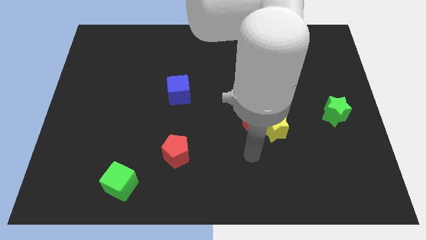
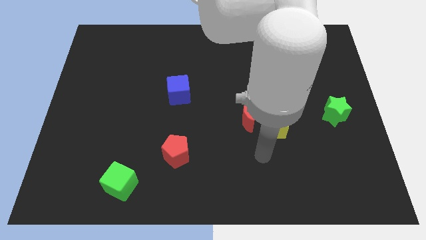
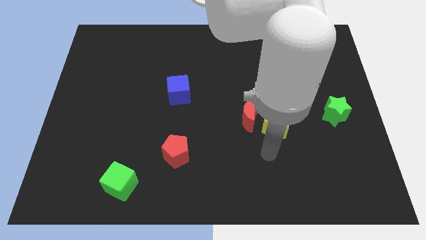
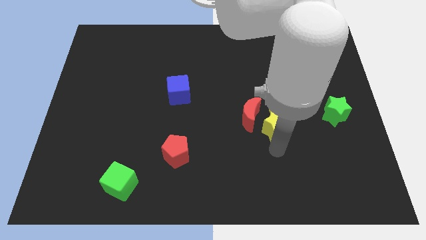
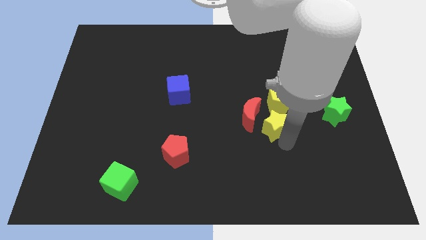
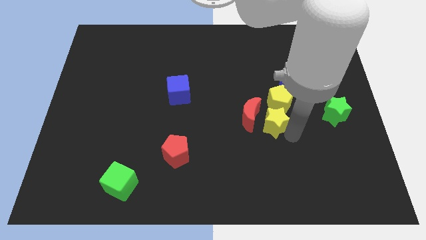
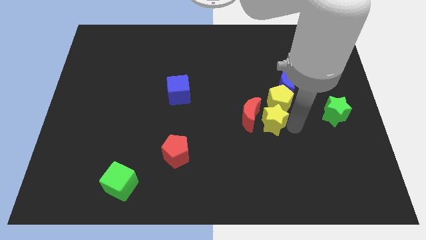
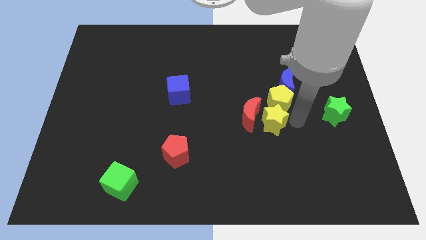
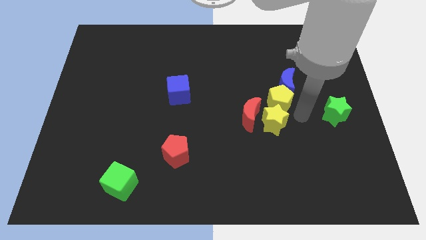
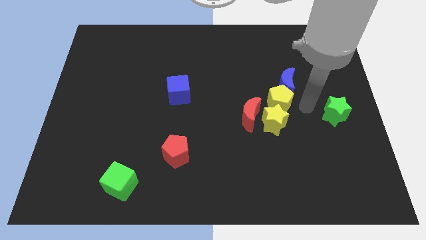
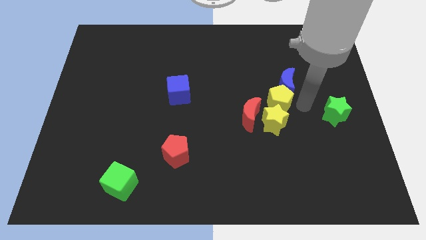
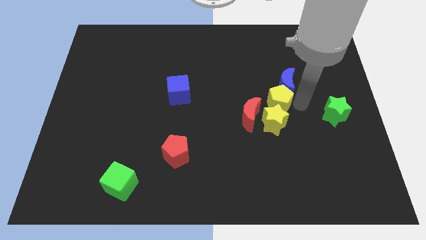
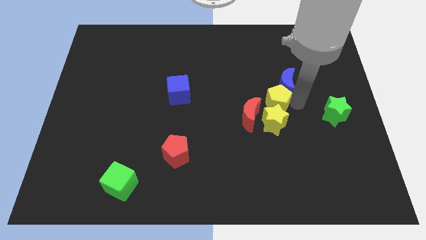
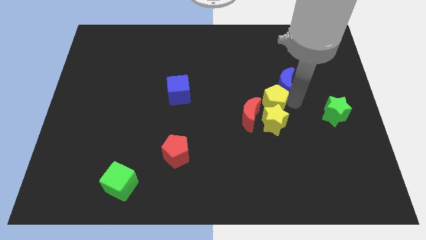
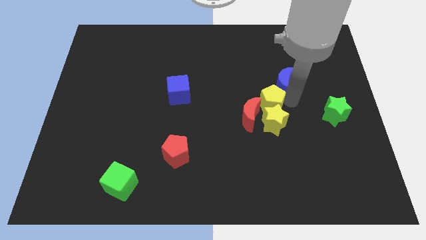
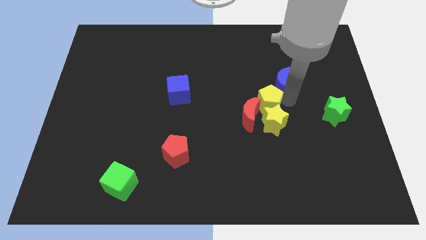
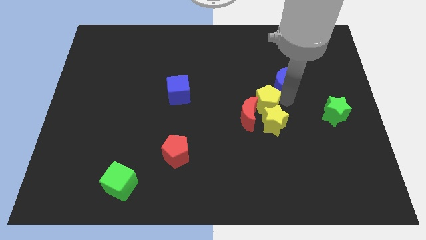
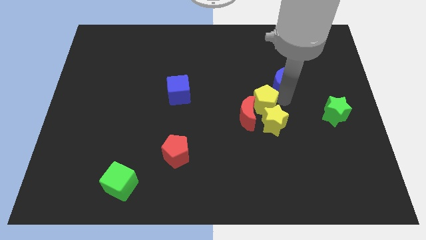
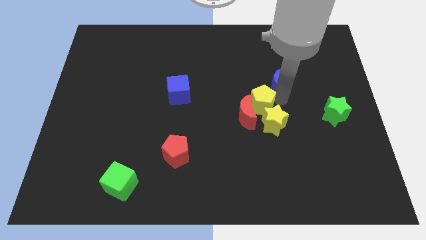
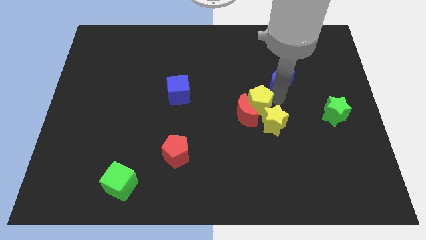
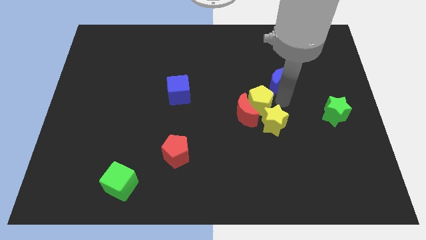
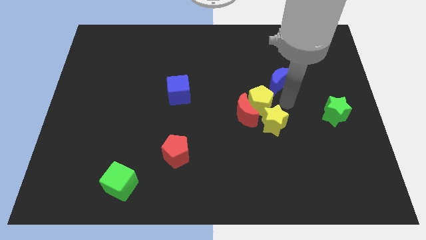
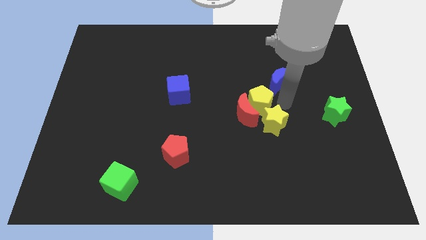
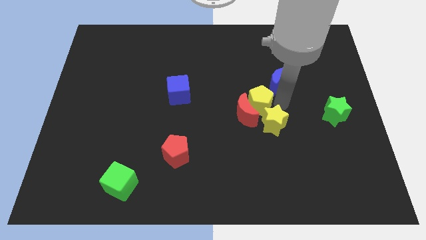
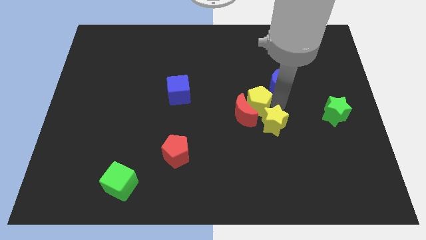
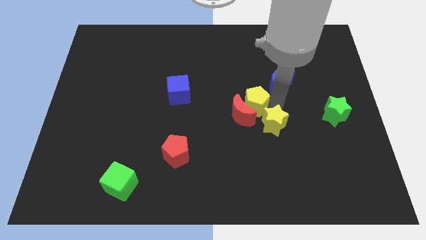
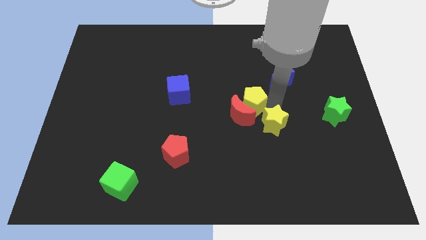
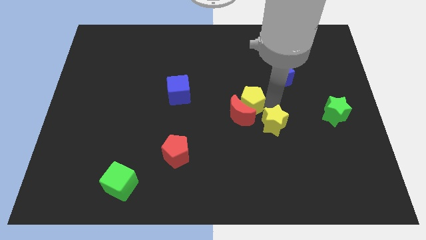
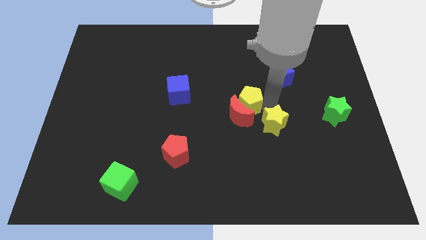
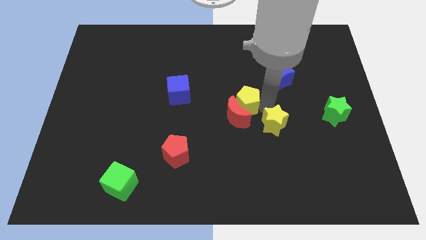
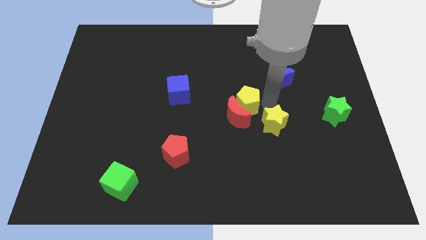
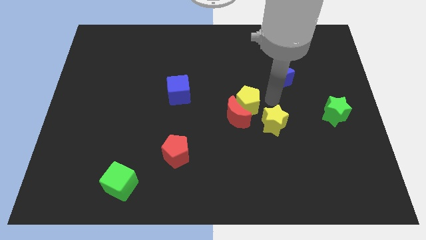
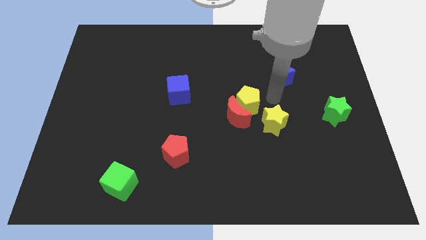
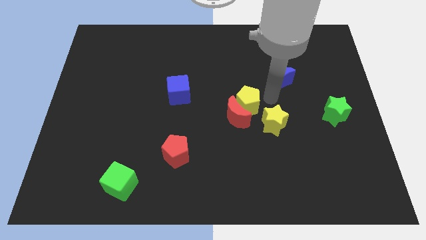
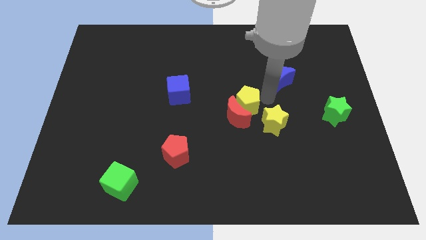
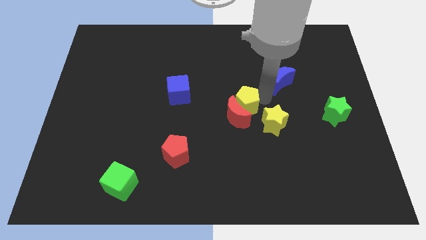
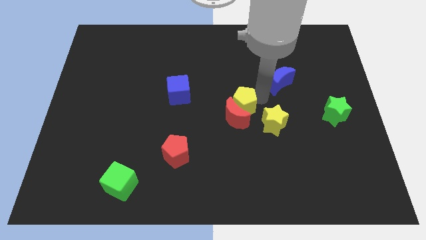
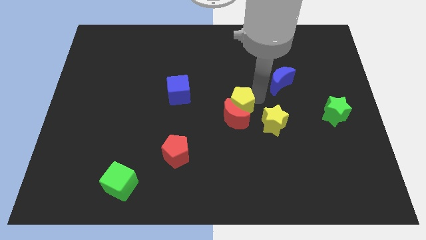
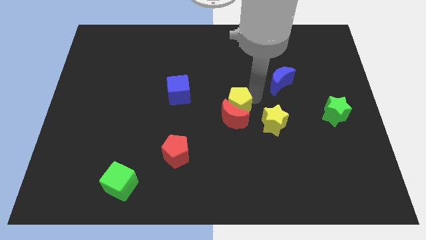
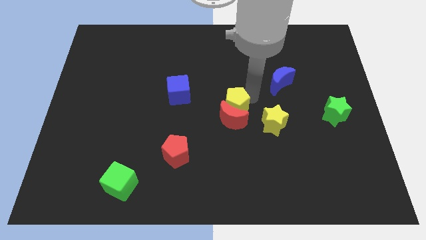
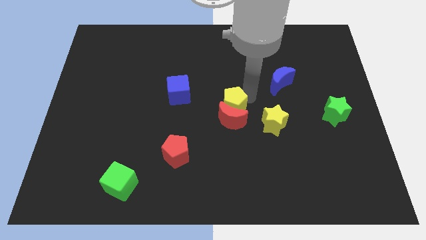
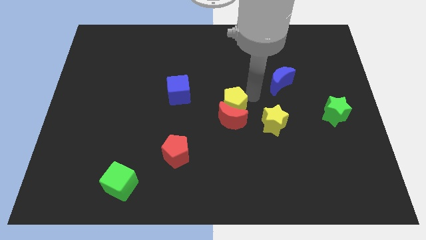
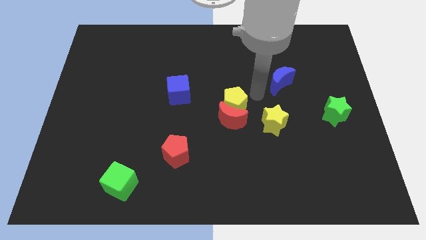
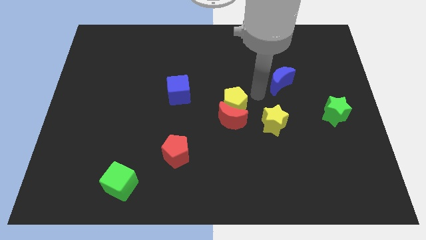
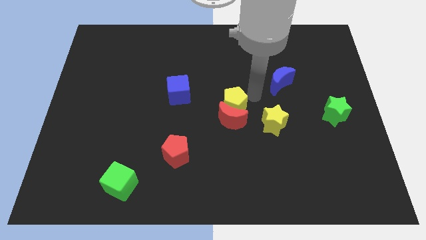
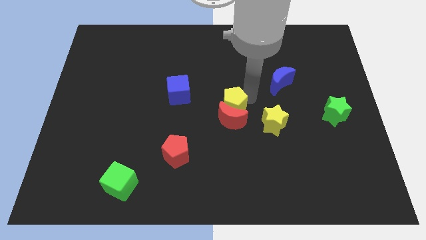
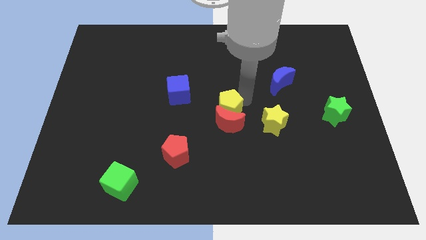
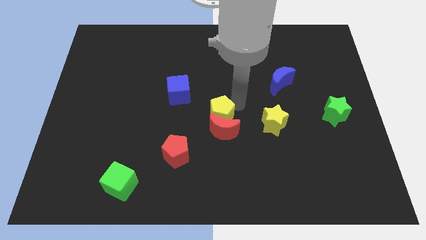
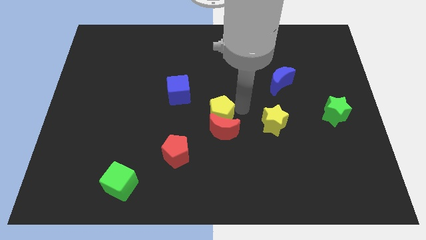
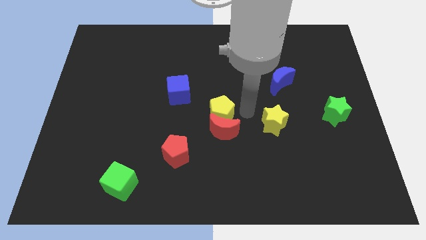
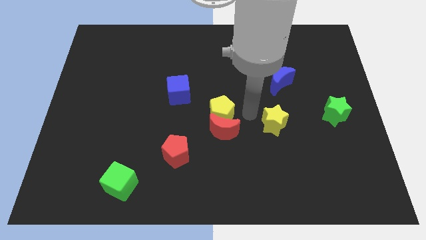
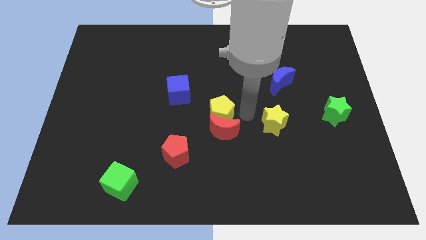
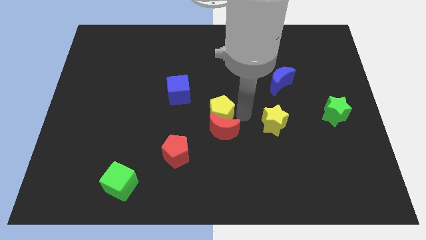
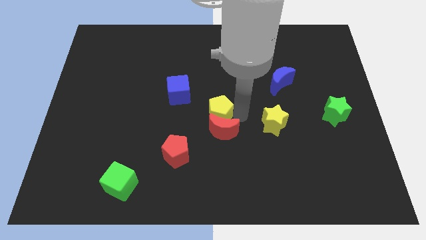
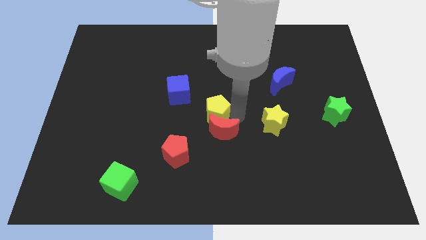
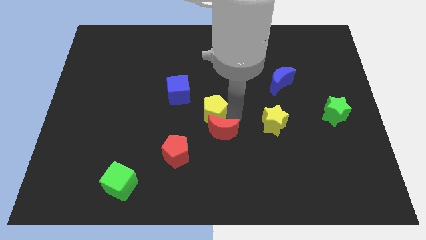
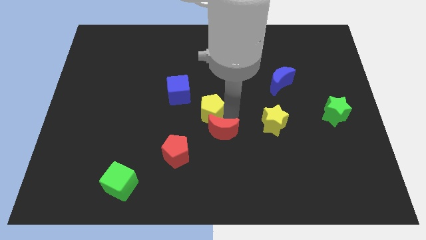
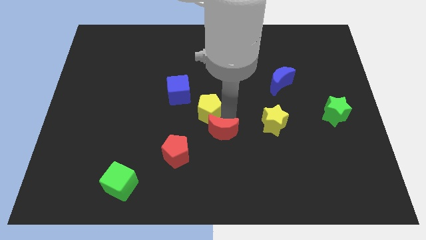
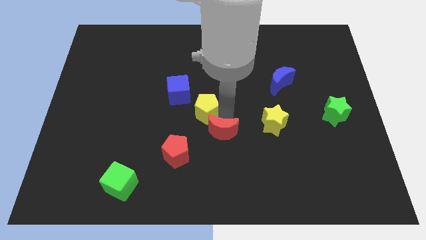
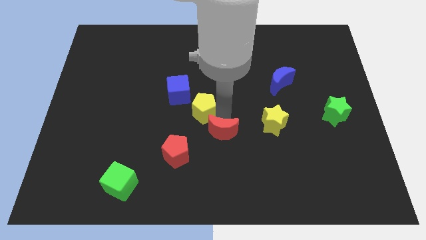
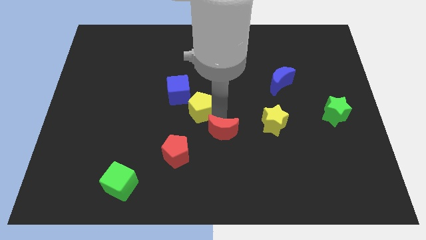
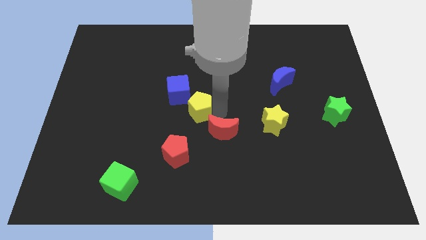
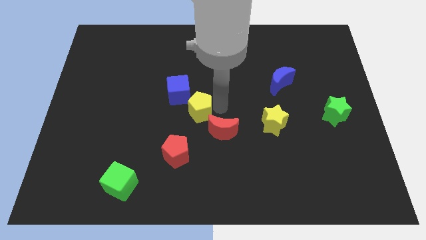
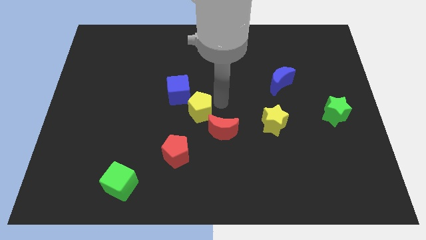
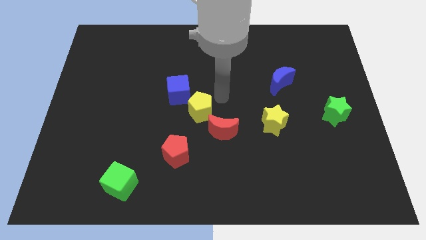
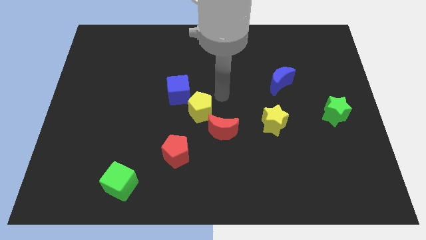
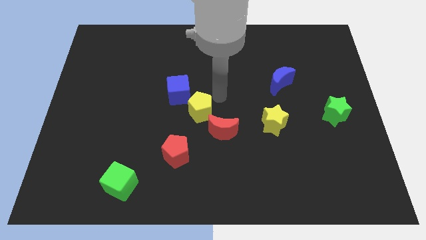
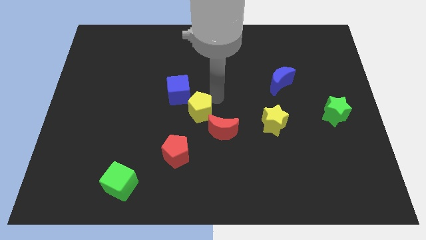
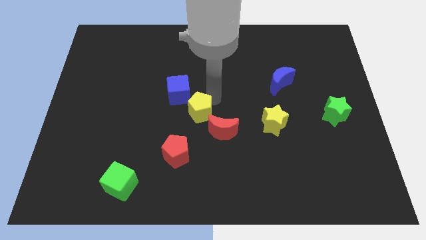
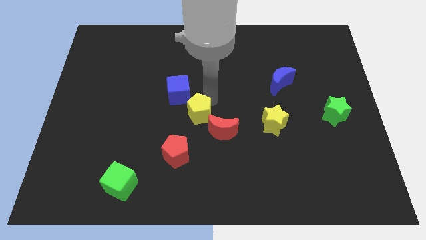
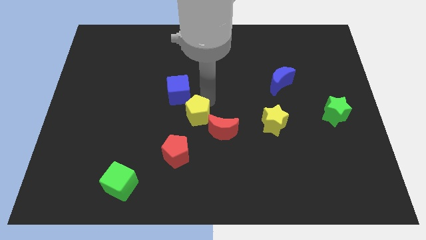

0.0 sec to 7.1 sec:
slide the yellow pentagon to the bottom side of the blue cube
